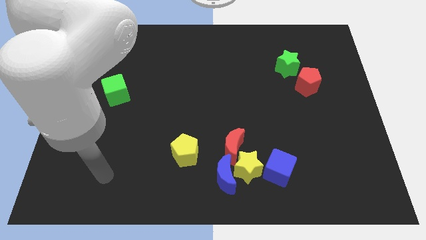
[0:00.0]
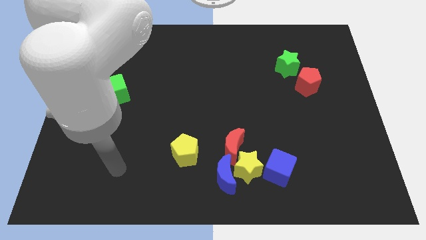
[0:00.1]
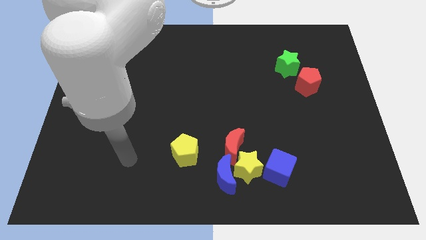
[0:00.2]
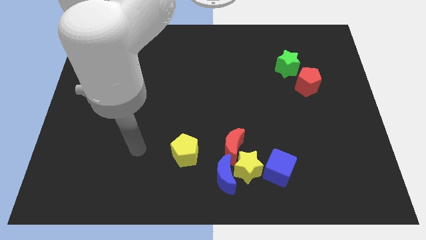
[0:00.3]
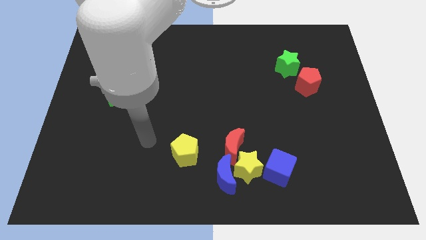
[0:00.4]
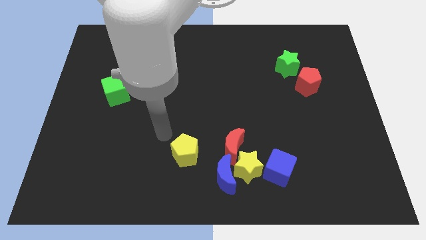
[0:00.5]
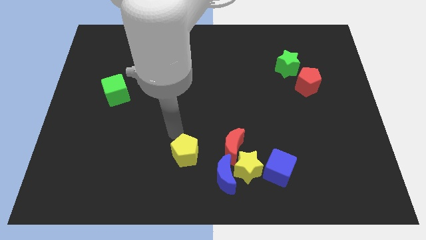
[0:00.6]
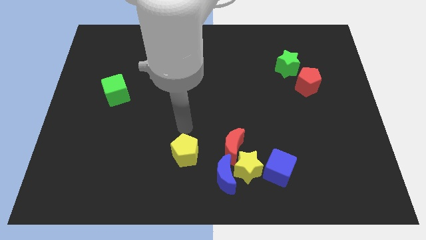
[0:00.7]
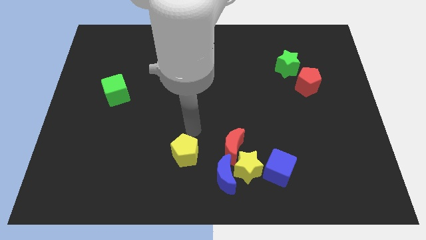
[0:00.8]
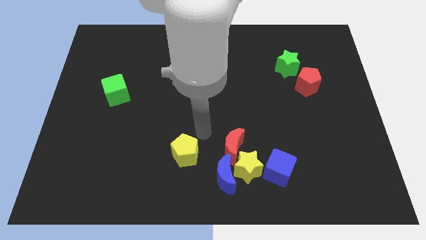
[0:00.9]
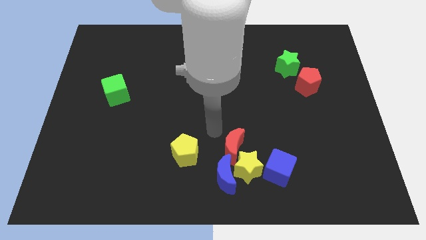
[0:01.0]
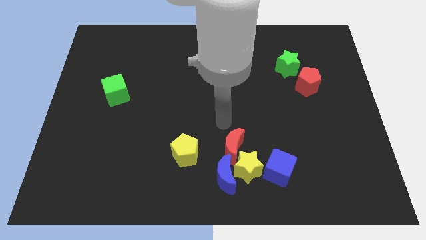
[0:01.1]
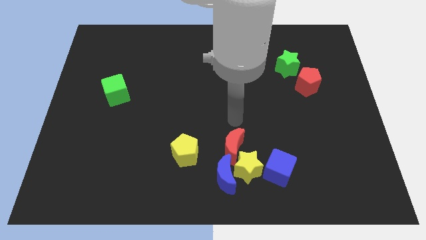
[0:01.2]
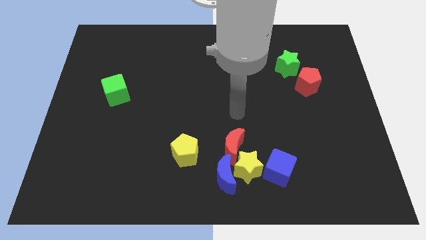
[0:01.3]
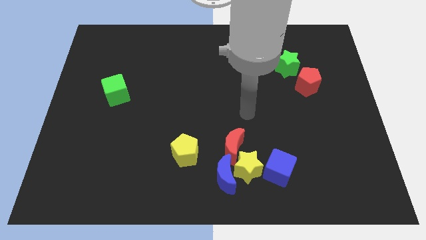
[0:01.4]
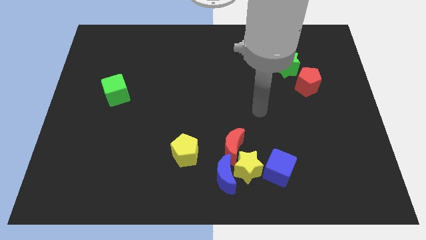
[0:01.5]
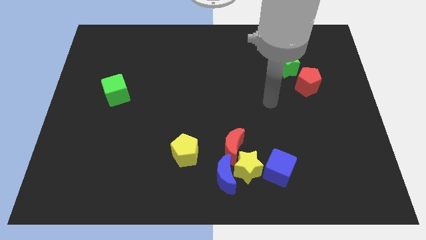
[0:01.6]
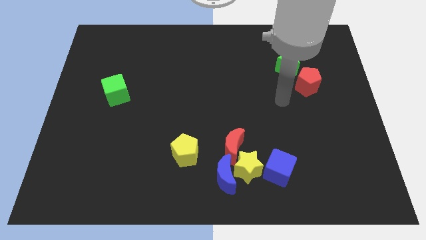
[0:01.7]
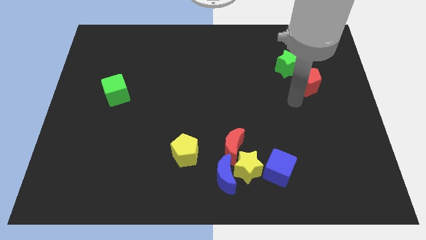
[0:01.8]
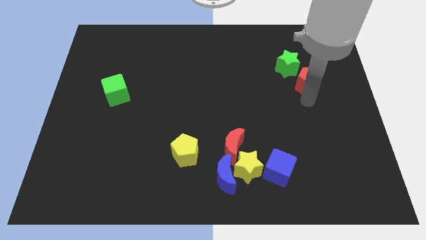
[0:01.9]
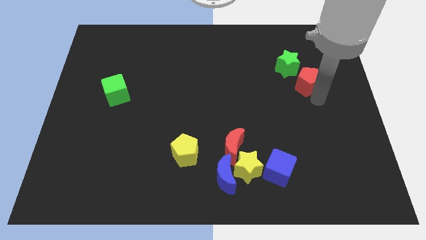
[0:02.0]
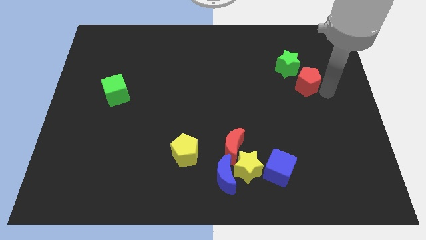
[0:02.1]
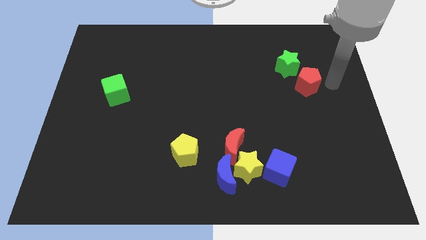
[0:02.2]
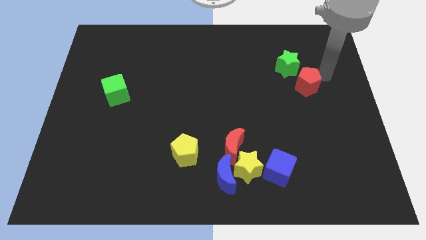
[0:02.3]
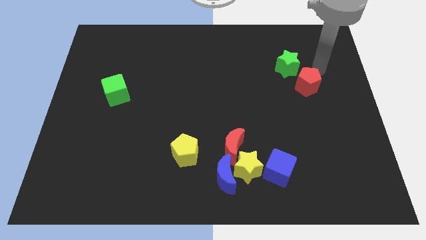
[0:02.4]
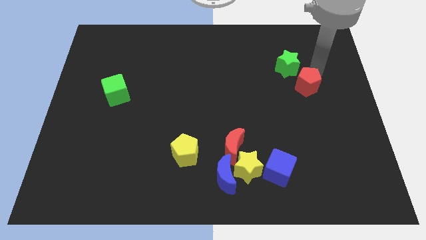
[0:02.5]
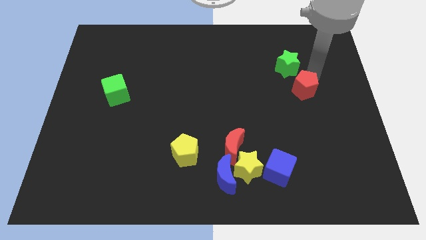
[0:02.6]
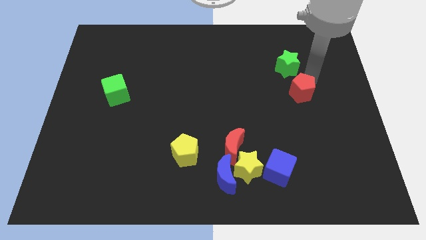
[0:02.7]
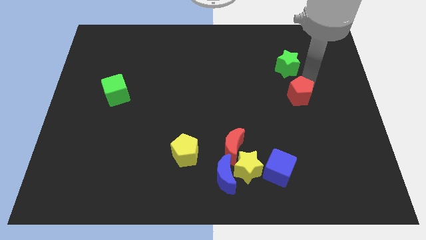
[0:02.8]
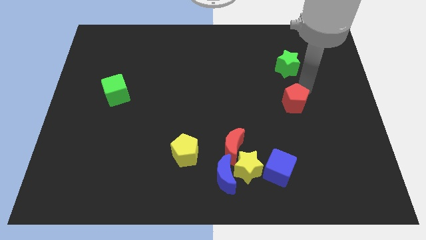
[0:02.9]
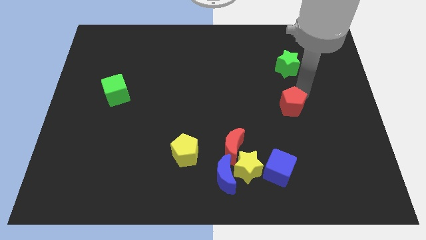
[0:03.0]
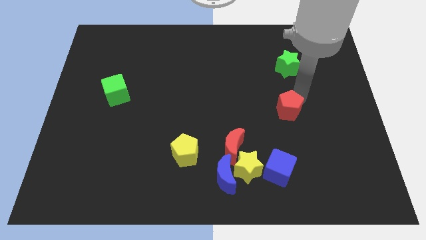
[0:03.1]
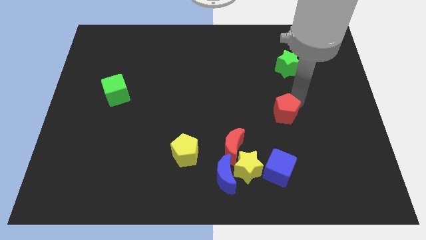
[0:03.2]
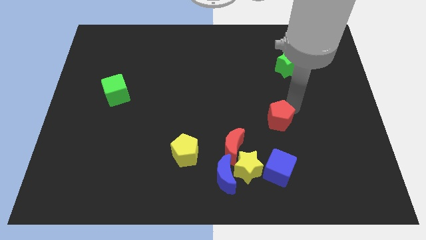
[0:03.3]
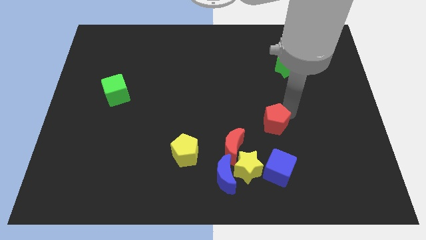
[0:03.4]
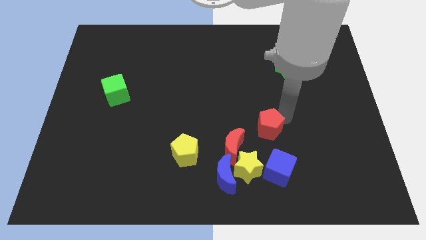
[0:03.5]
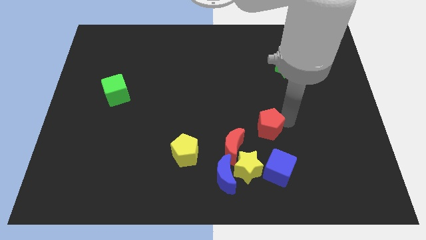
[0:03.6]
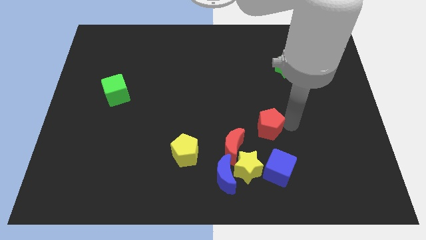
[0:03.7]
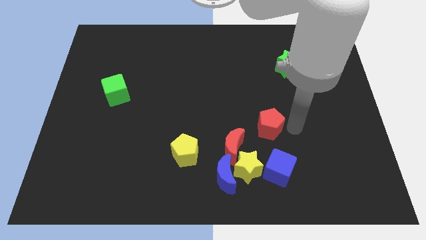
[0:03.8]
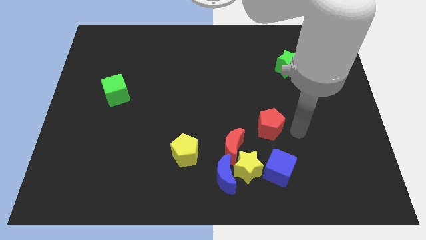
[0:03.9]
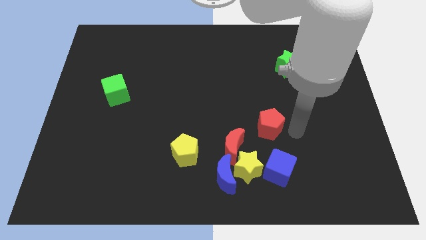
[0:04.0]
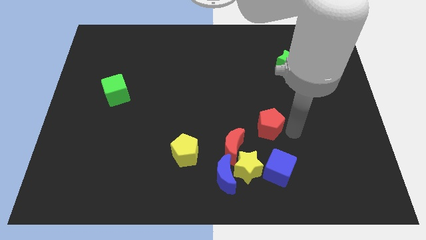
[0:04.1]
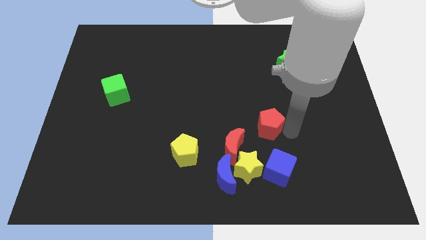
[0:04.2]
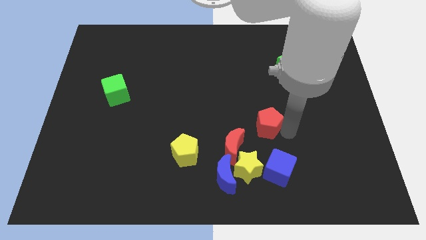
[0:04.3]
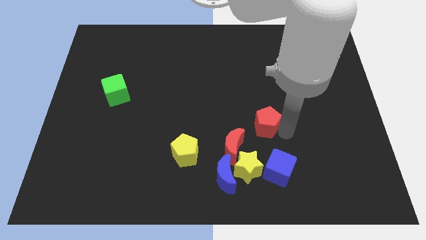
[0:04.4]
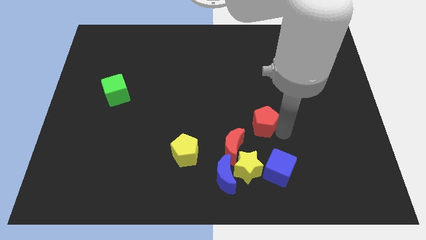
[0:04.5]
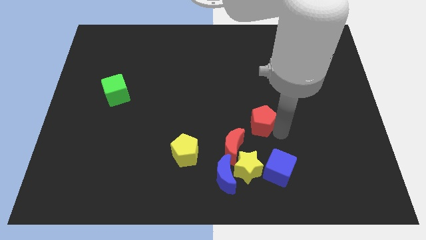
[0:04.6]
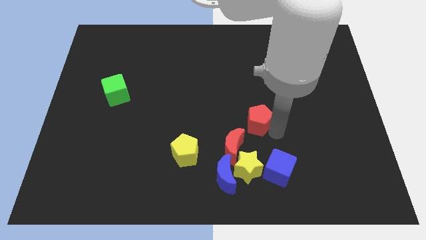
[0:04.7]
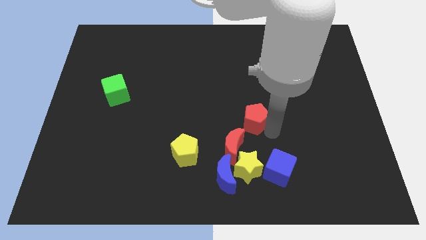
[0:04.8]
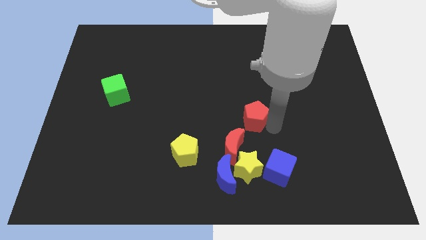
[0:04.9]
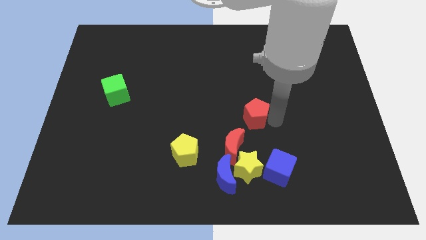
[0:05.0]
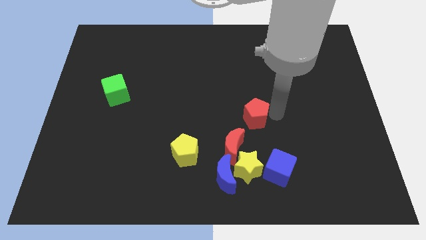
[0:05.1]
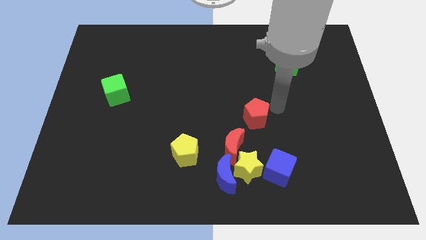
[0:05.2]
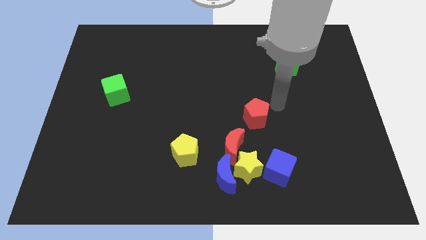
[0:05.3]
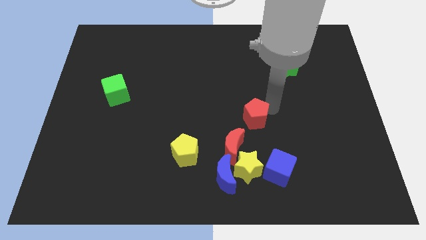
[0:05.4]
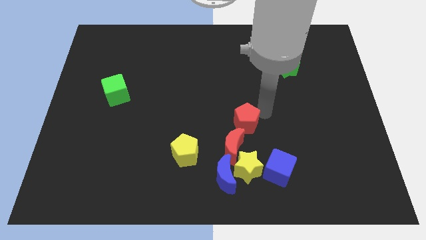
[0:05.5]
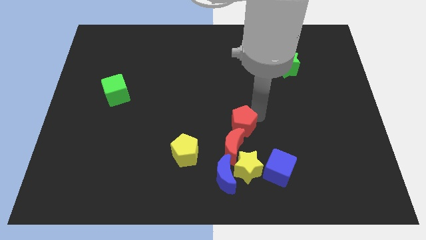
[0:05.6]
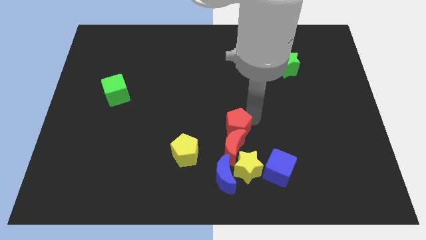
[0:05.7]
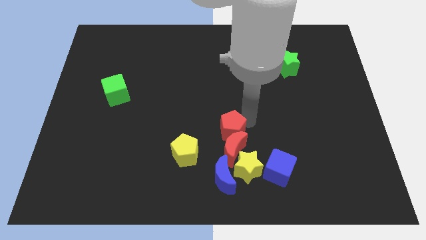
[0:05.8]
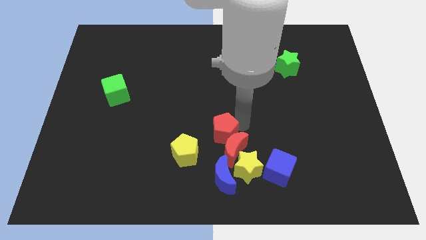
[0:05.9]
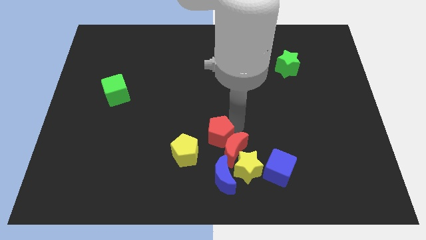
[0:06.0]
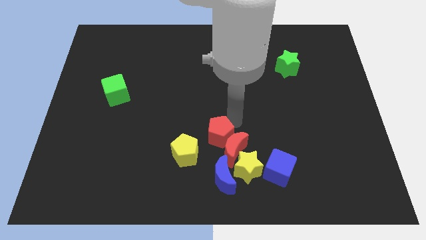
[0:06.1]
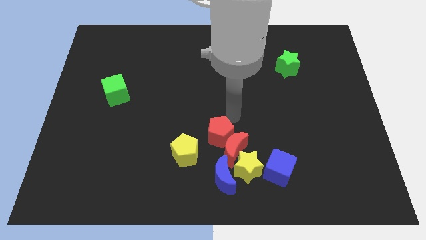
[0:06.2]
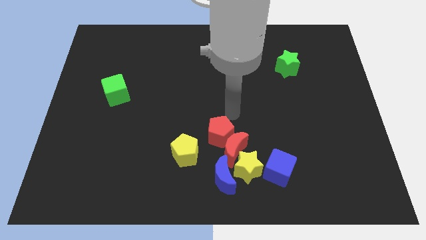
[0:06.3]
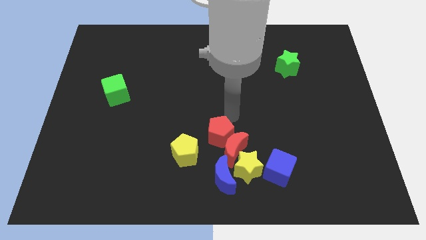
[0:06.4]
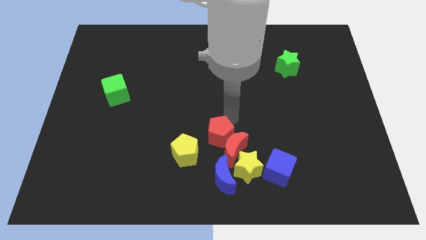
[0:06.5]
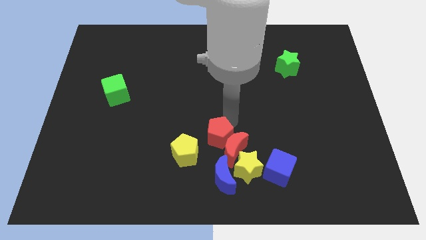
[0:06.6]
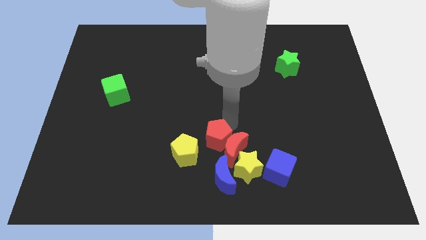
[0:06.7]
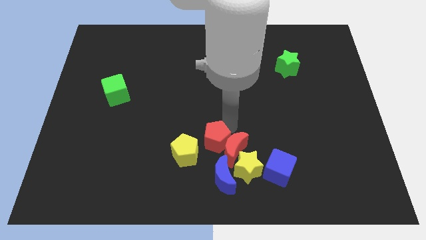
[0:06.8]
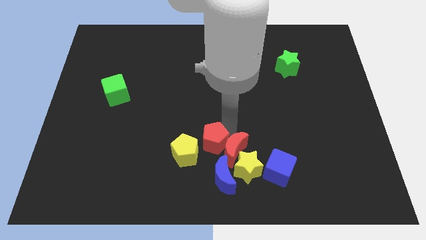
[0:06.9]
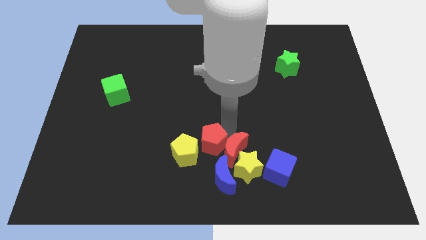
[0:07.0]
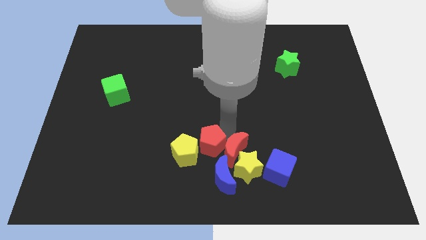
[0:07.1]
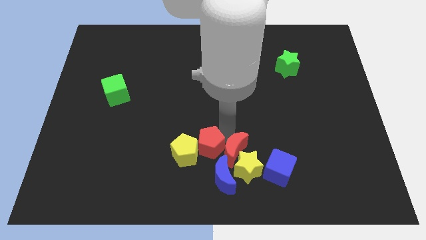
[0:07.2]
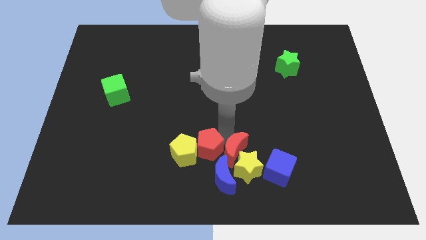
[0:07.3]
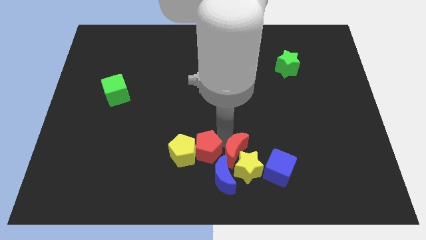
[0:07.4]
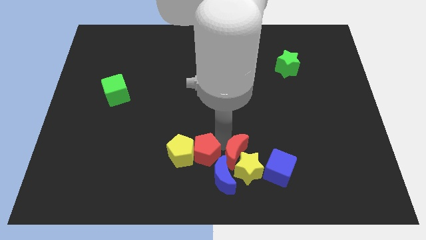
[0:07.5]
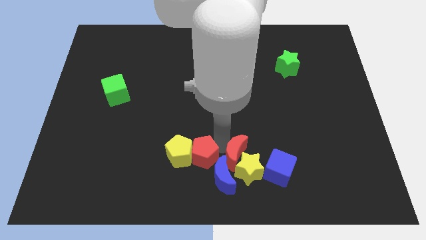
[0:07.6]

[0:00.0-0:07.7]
slide the red pentagon to the bottom side
